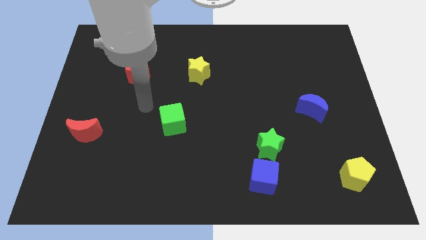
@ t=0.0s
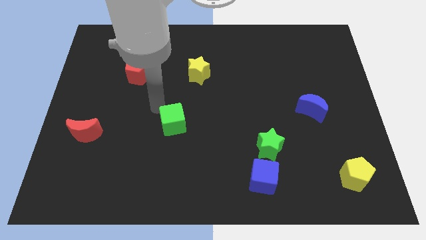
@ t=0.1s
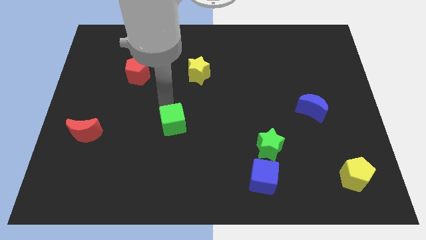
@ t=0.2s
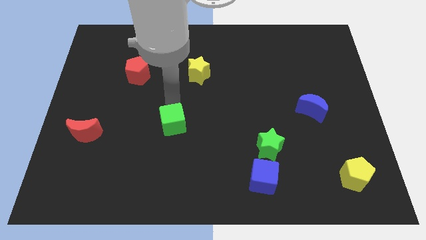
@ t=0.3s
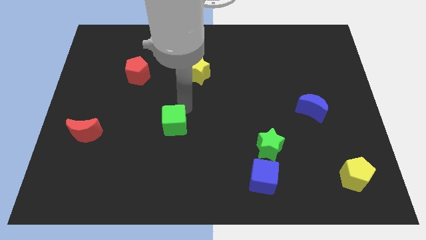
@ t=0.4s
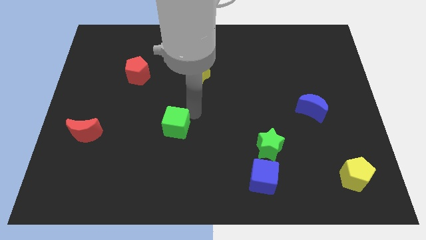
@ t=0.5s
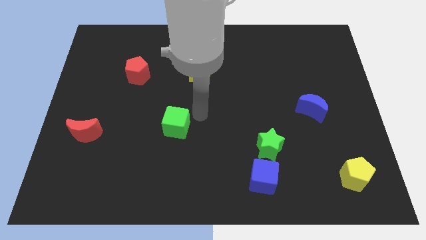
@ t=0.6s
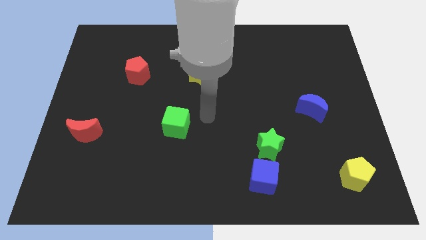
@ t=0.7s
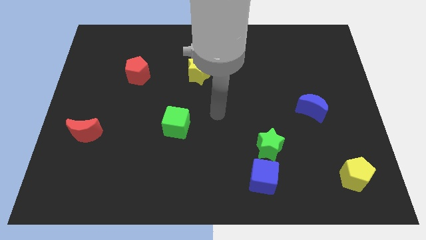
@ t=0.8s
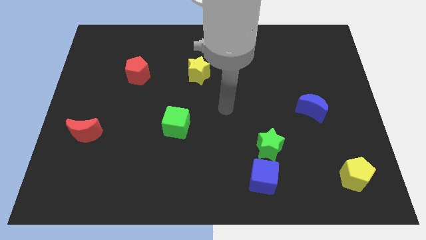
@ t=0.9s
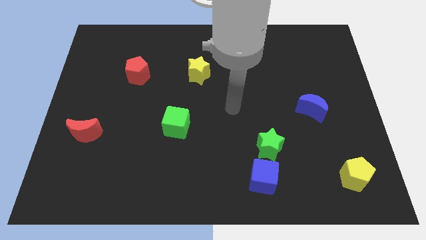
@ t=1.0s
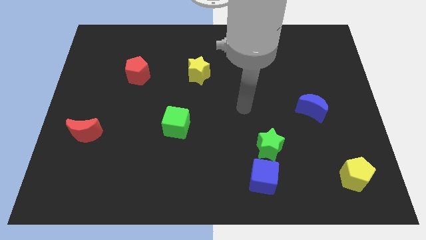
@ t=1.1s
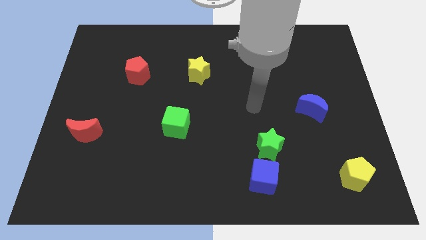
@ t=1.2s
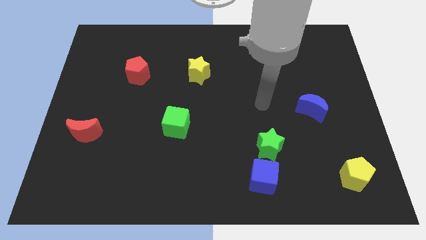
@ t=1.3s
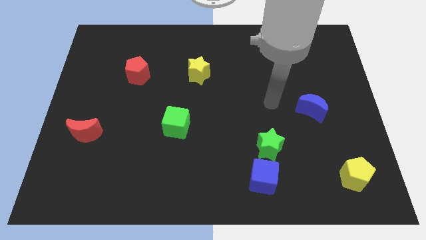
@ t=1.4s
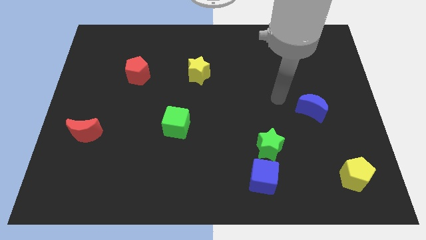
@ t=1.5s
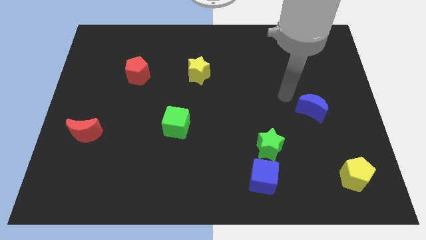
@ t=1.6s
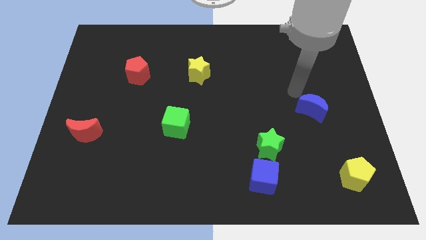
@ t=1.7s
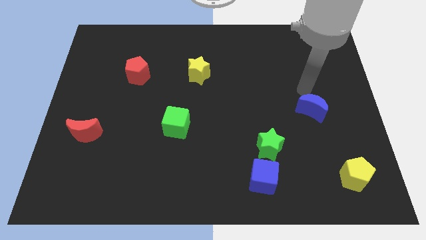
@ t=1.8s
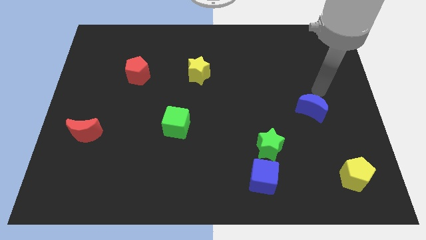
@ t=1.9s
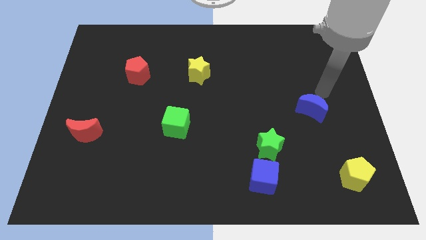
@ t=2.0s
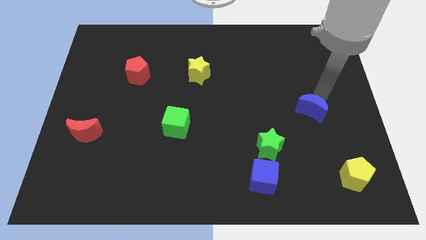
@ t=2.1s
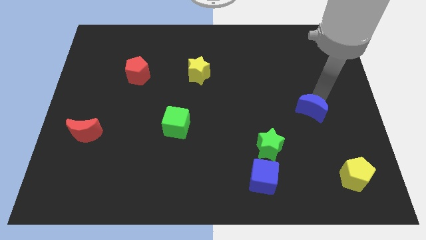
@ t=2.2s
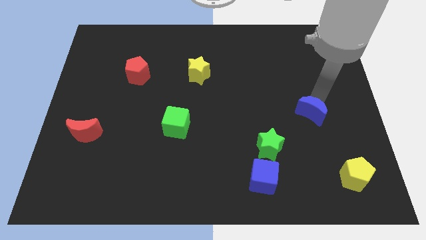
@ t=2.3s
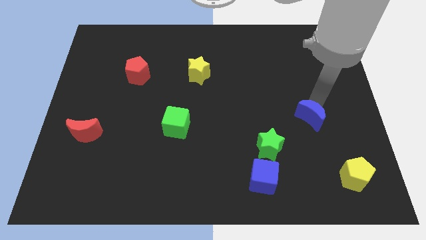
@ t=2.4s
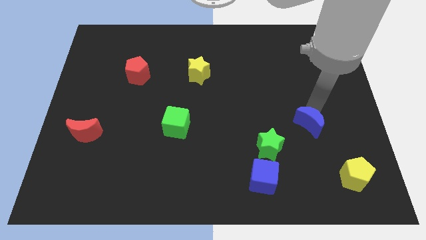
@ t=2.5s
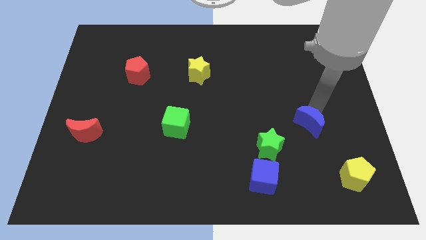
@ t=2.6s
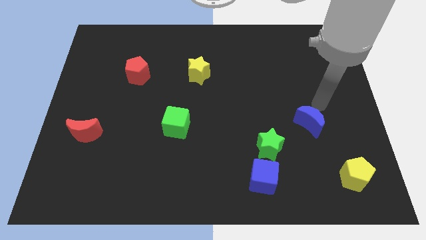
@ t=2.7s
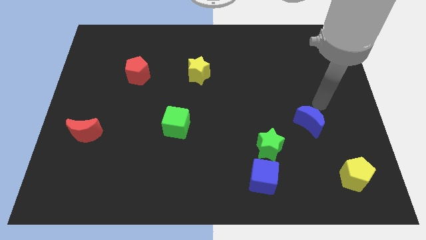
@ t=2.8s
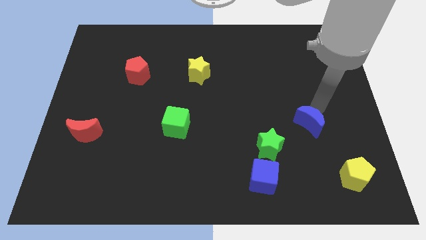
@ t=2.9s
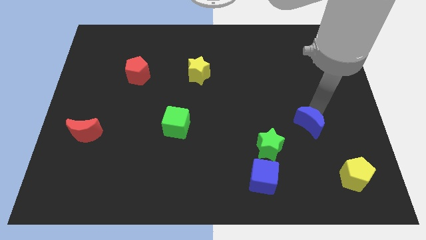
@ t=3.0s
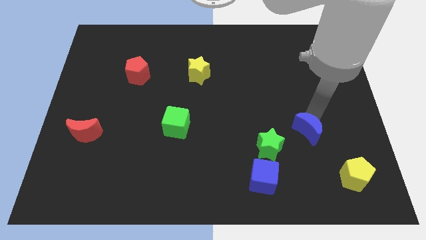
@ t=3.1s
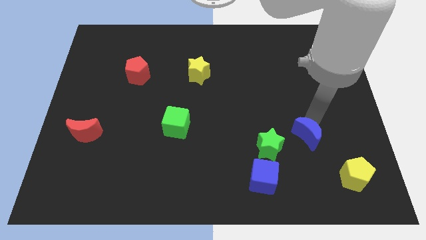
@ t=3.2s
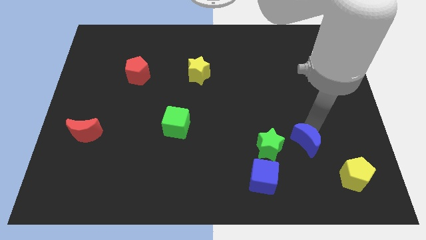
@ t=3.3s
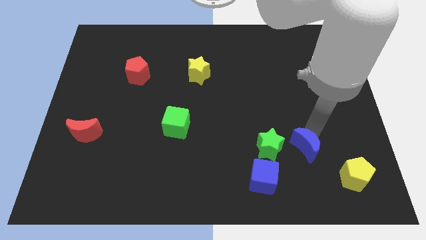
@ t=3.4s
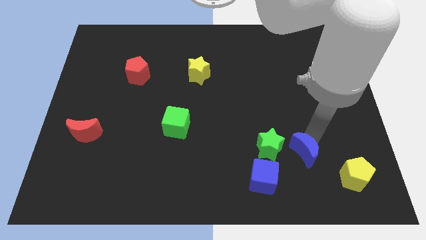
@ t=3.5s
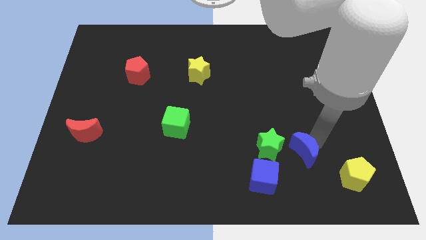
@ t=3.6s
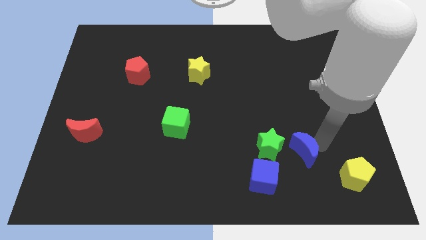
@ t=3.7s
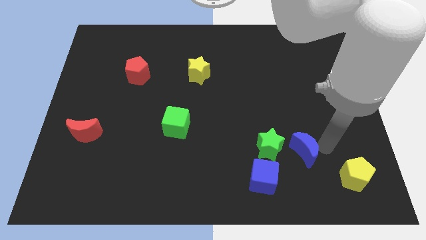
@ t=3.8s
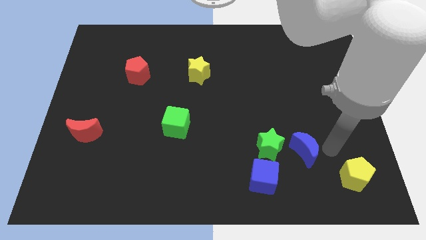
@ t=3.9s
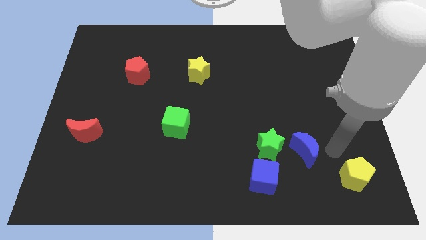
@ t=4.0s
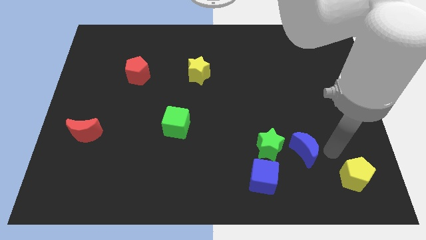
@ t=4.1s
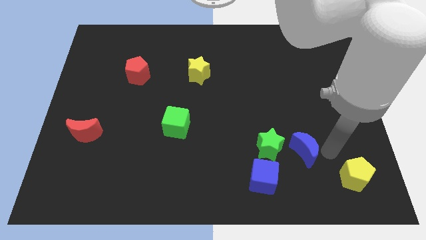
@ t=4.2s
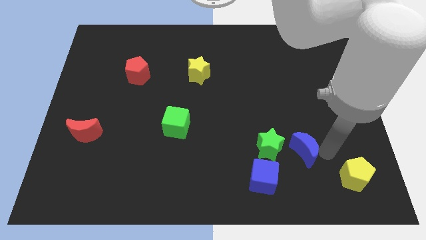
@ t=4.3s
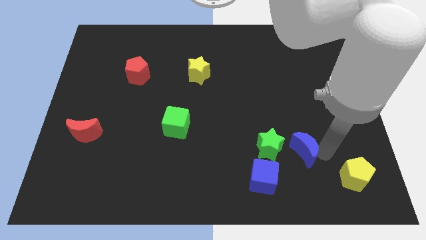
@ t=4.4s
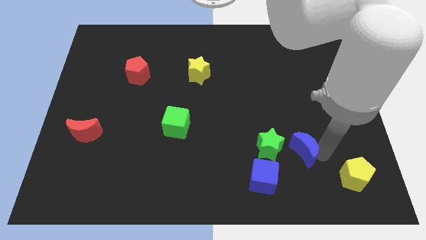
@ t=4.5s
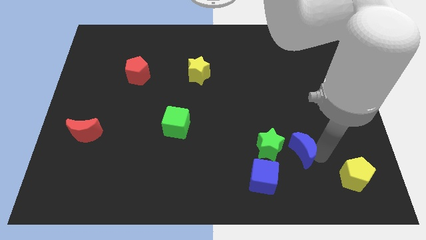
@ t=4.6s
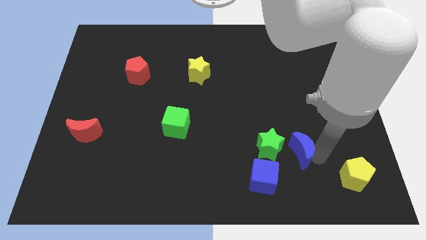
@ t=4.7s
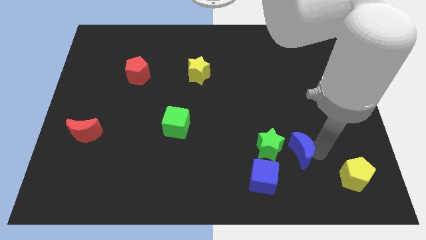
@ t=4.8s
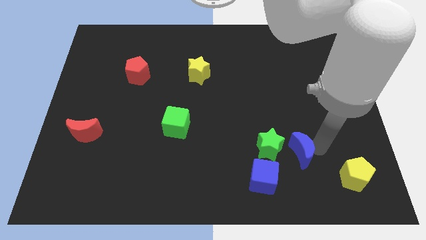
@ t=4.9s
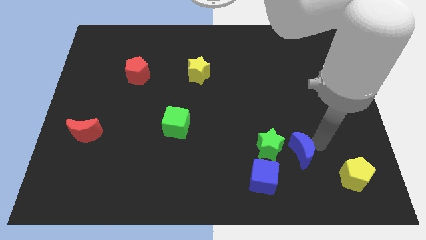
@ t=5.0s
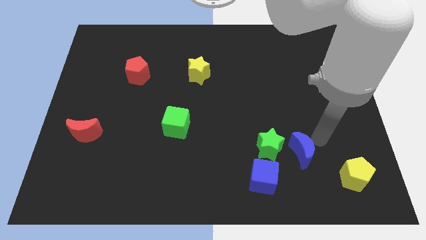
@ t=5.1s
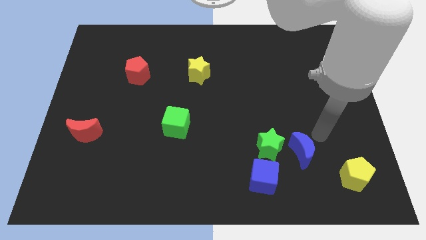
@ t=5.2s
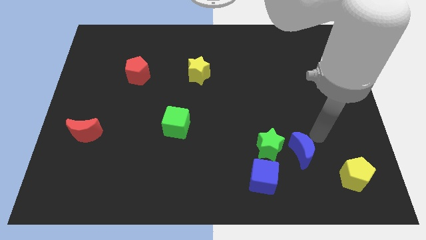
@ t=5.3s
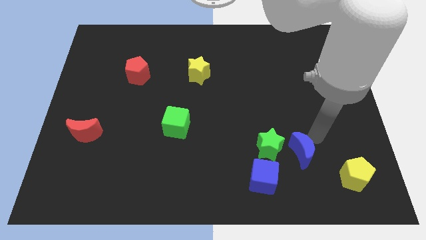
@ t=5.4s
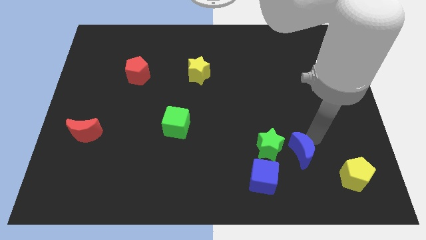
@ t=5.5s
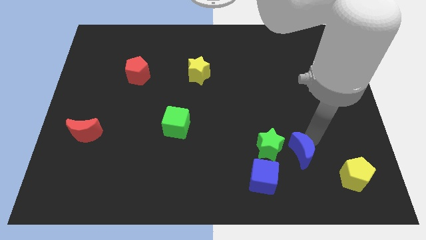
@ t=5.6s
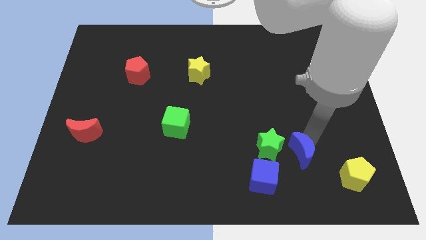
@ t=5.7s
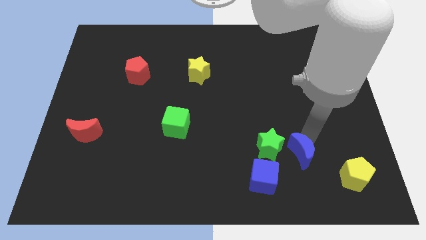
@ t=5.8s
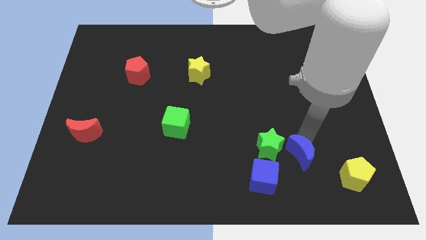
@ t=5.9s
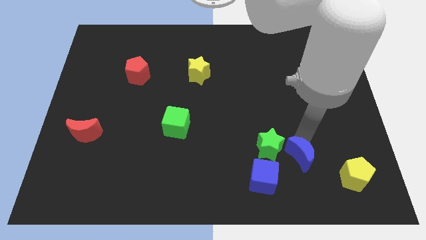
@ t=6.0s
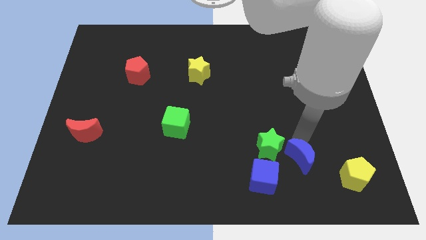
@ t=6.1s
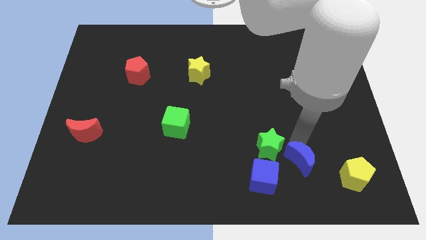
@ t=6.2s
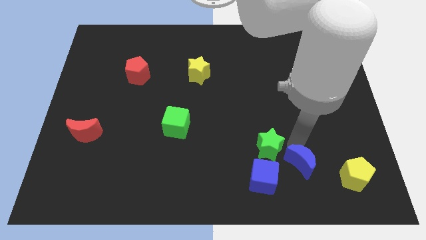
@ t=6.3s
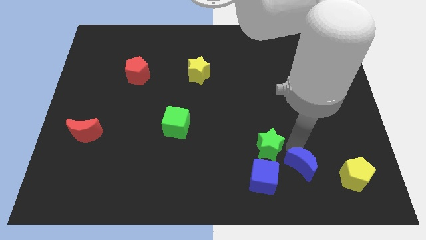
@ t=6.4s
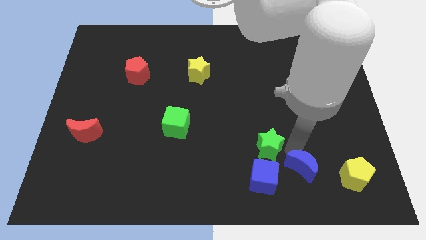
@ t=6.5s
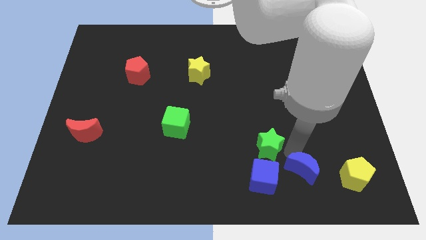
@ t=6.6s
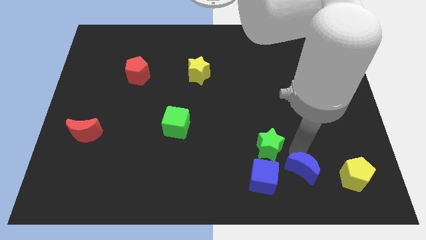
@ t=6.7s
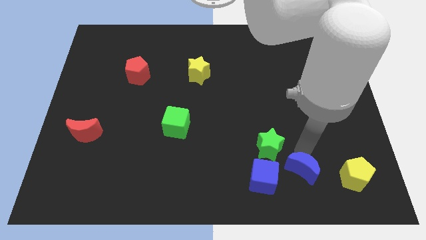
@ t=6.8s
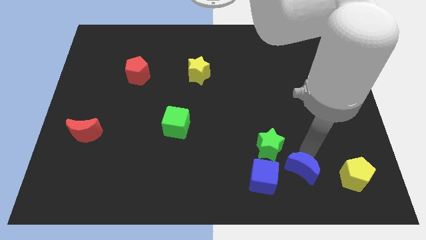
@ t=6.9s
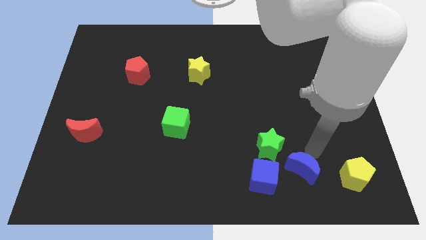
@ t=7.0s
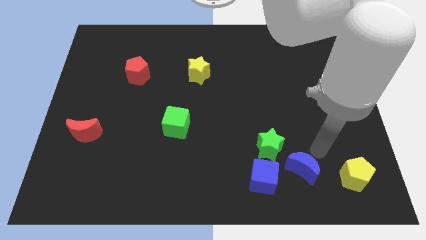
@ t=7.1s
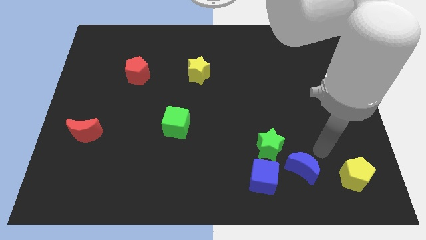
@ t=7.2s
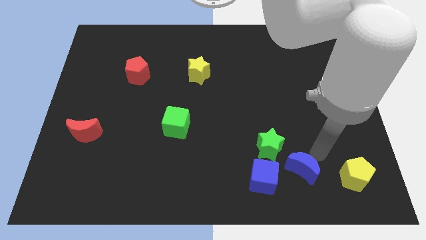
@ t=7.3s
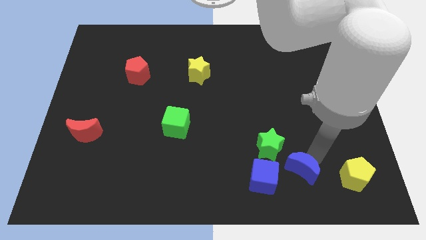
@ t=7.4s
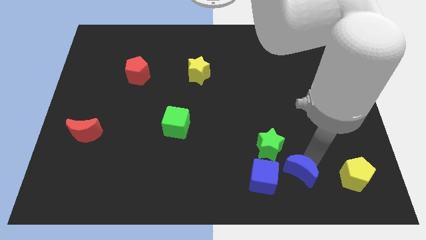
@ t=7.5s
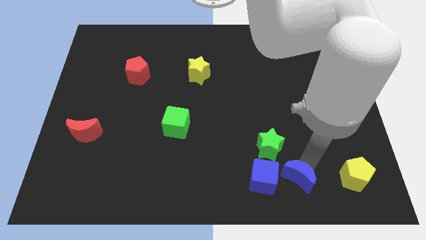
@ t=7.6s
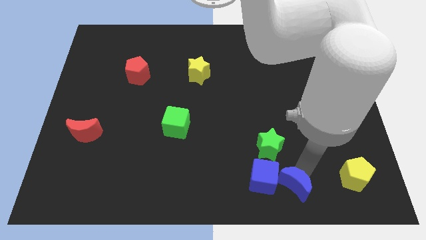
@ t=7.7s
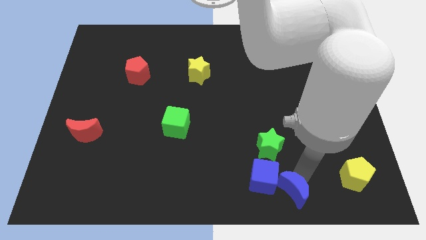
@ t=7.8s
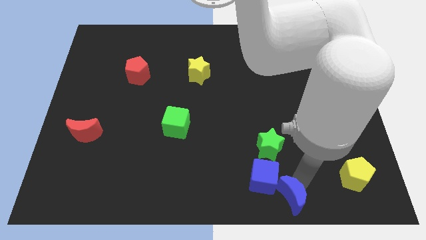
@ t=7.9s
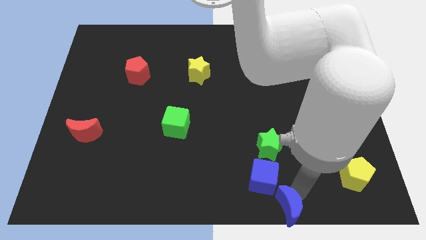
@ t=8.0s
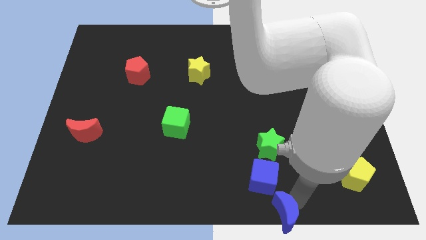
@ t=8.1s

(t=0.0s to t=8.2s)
move the blue moon to the bottom side
